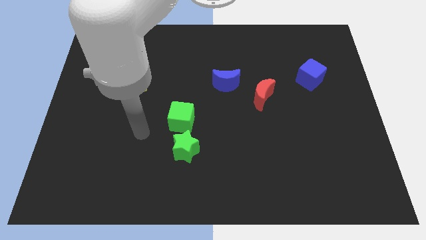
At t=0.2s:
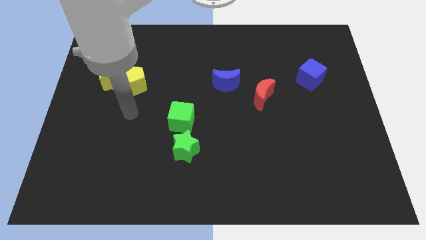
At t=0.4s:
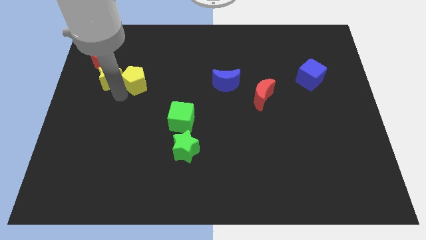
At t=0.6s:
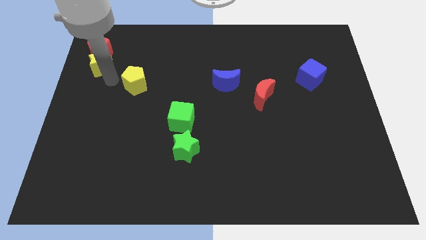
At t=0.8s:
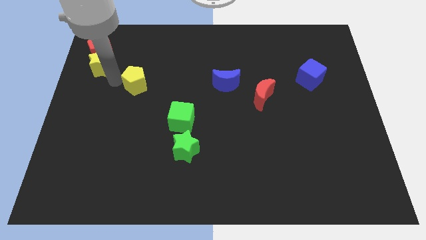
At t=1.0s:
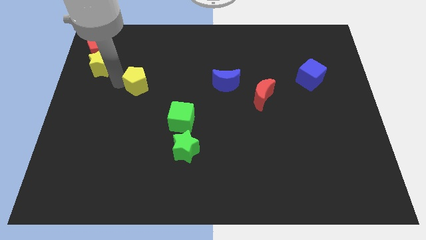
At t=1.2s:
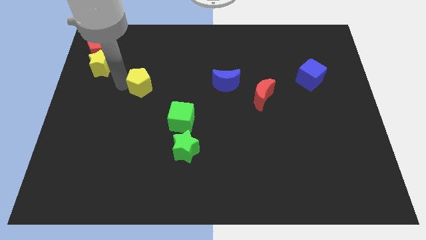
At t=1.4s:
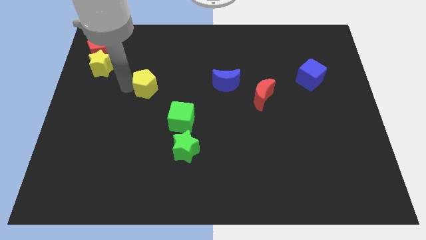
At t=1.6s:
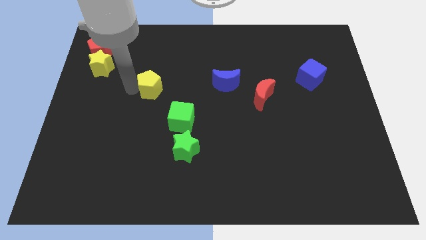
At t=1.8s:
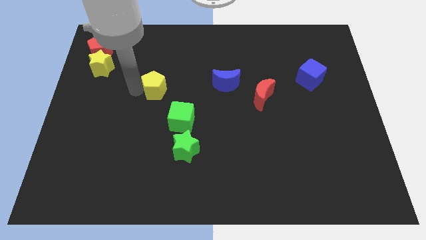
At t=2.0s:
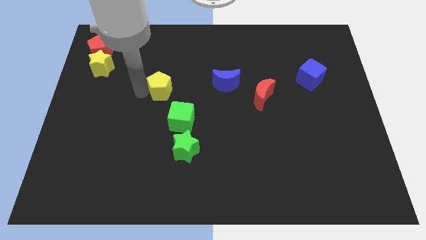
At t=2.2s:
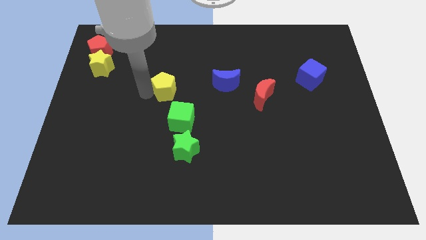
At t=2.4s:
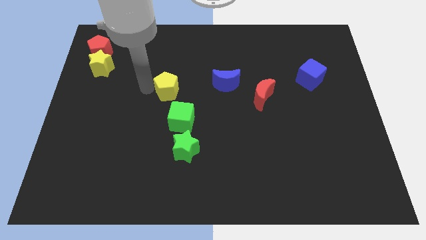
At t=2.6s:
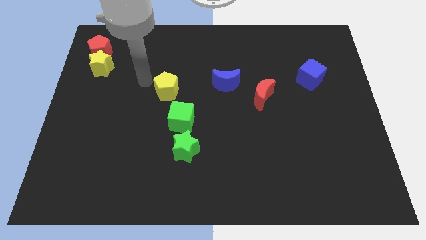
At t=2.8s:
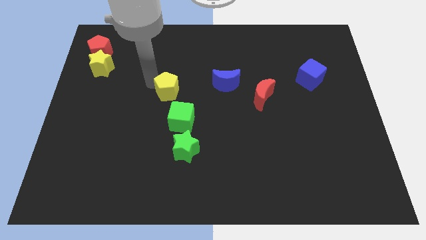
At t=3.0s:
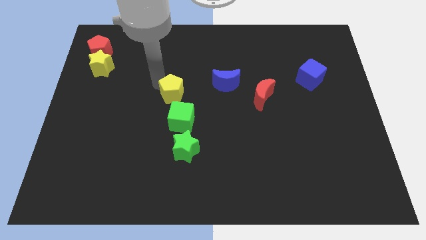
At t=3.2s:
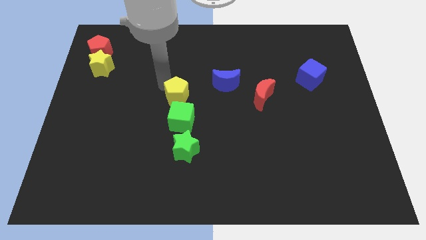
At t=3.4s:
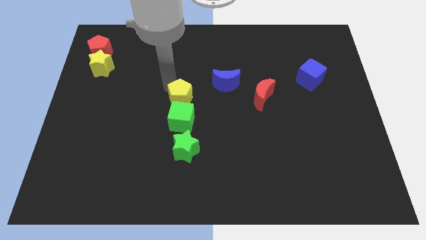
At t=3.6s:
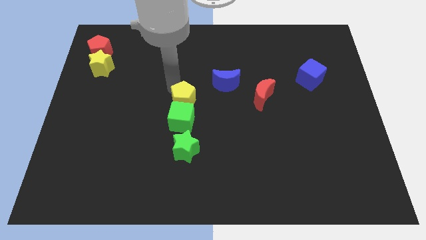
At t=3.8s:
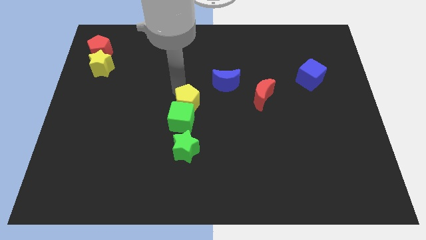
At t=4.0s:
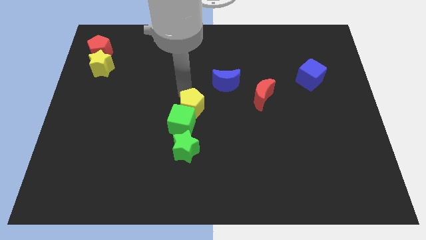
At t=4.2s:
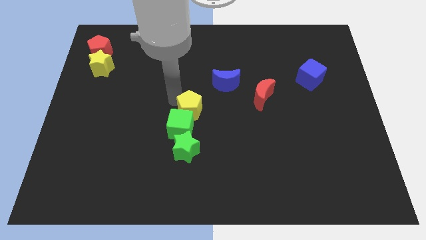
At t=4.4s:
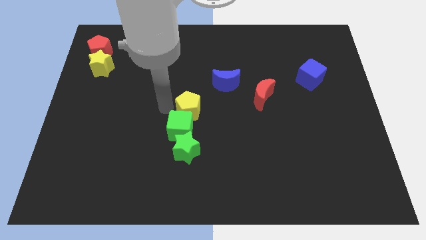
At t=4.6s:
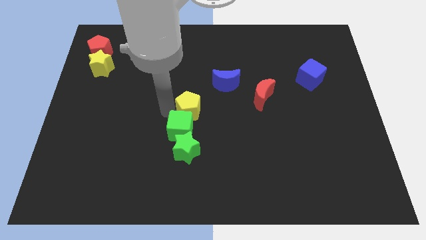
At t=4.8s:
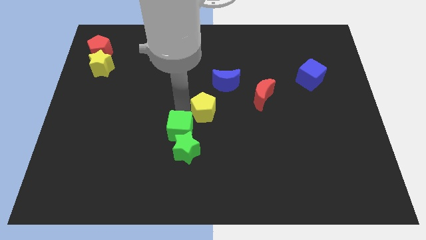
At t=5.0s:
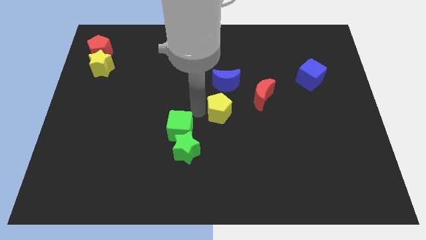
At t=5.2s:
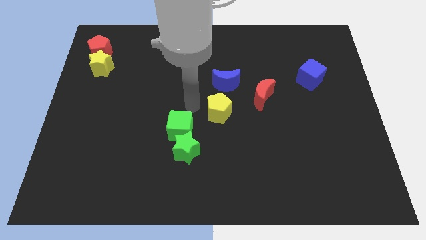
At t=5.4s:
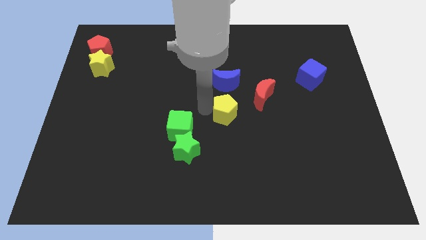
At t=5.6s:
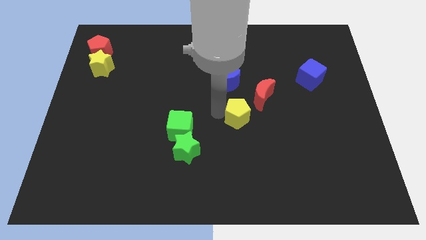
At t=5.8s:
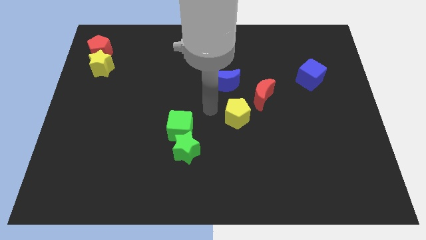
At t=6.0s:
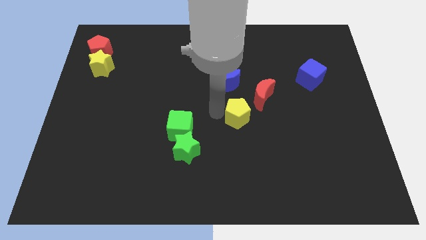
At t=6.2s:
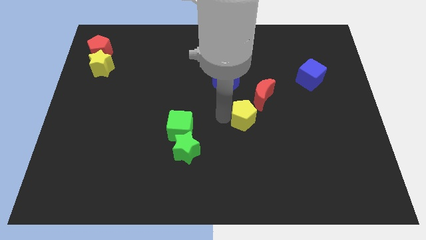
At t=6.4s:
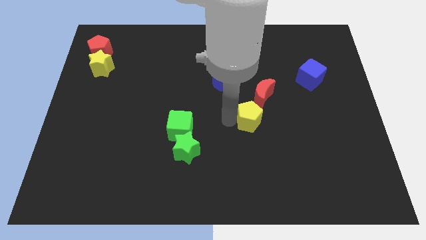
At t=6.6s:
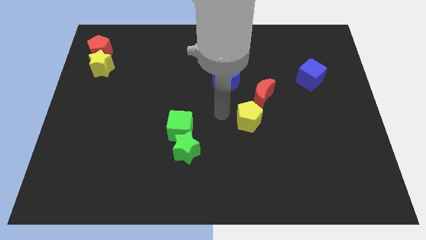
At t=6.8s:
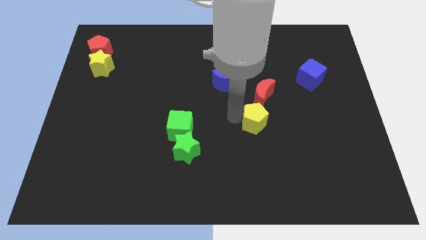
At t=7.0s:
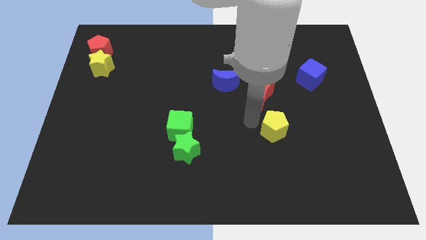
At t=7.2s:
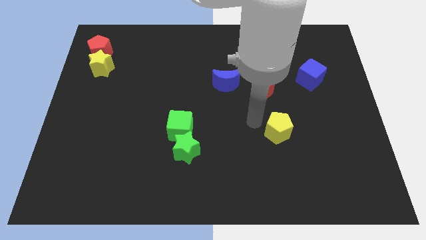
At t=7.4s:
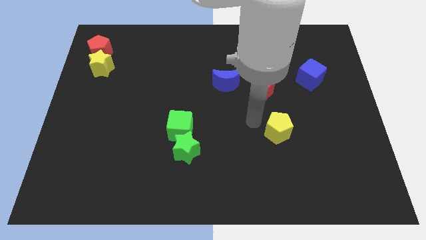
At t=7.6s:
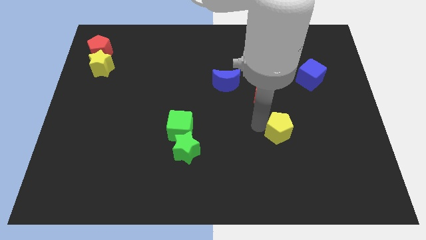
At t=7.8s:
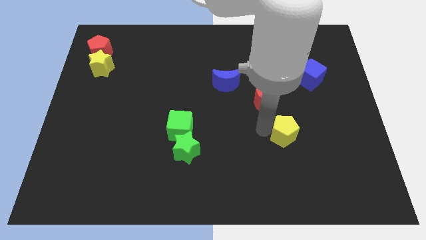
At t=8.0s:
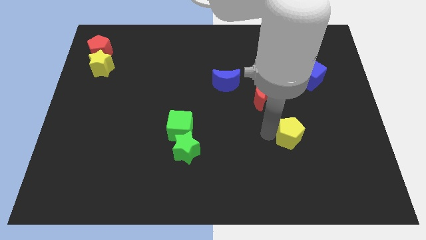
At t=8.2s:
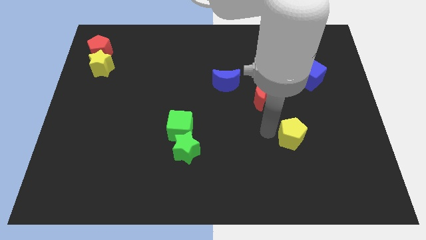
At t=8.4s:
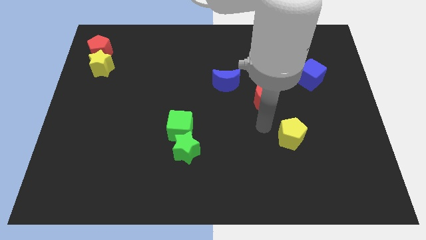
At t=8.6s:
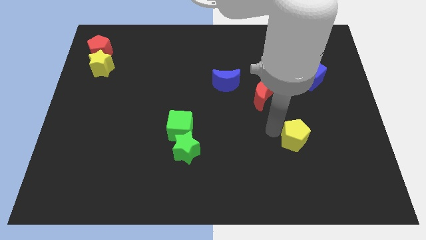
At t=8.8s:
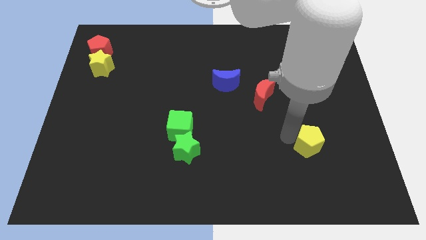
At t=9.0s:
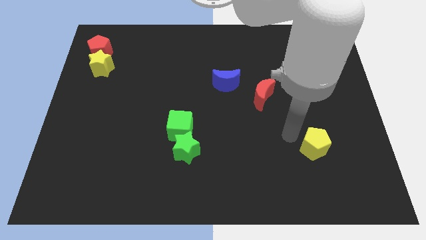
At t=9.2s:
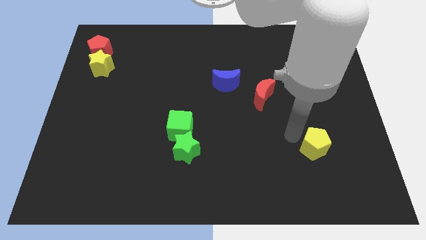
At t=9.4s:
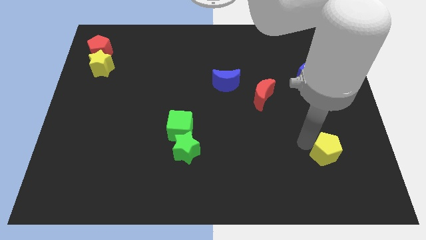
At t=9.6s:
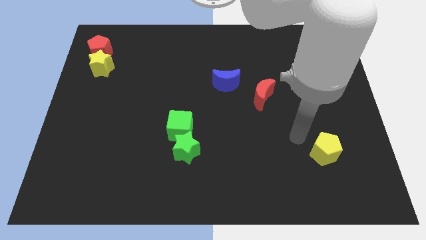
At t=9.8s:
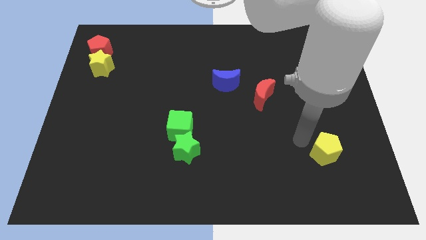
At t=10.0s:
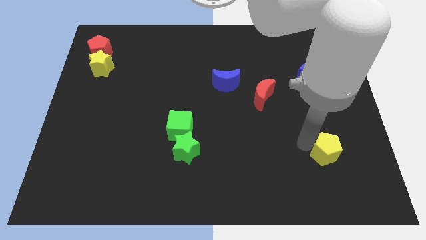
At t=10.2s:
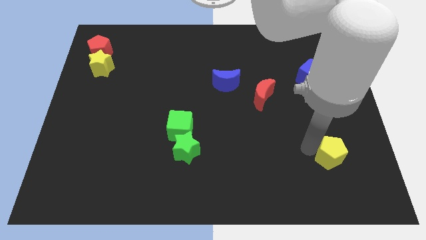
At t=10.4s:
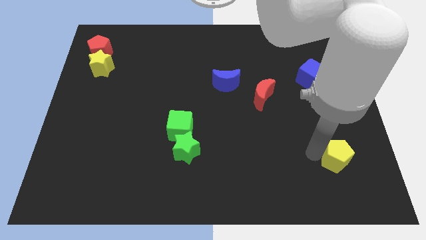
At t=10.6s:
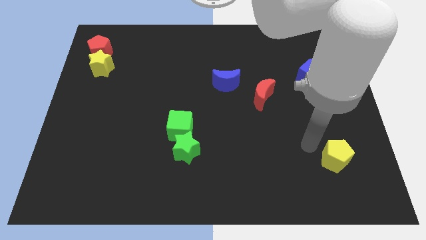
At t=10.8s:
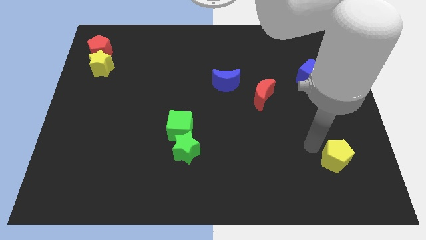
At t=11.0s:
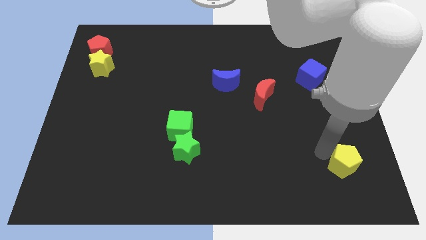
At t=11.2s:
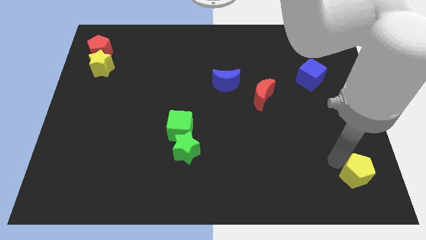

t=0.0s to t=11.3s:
push the yellow pentagon to the bottom right corner
